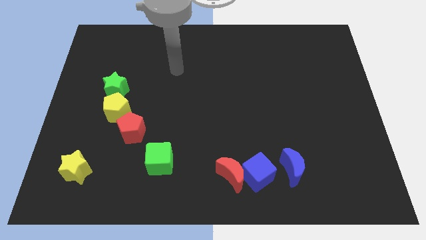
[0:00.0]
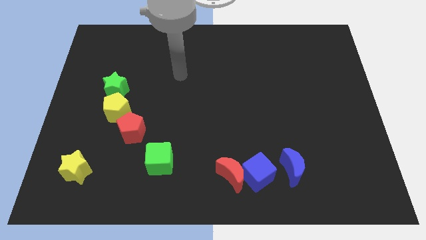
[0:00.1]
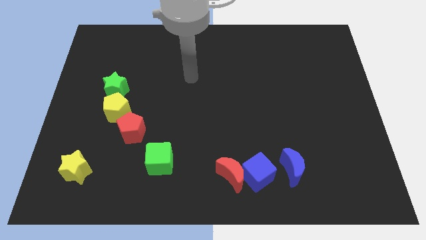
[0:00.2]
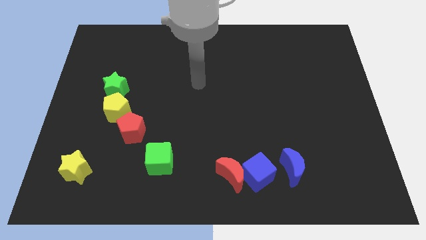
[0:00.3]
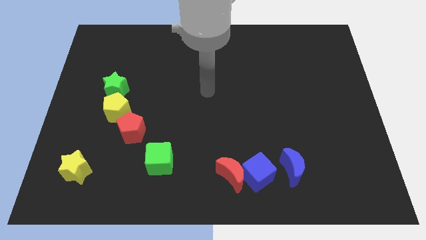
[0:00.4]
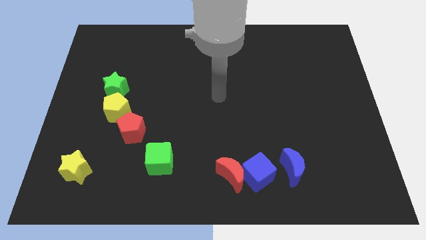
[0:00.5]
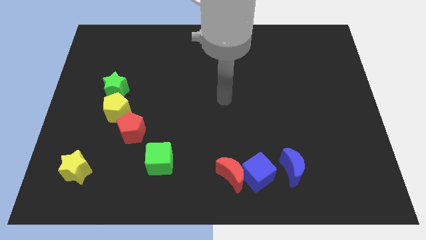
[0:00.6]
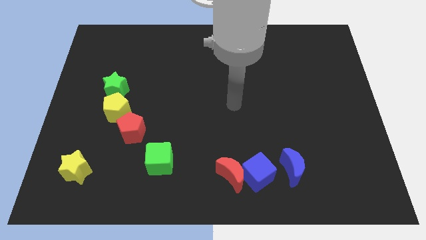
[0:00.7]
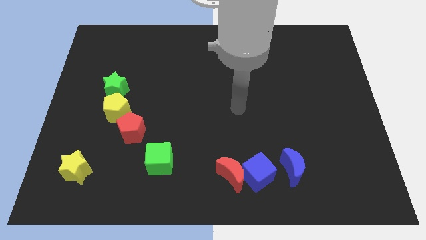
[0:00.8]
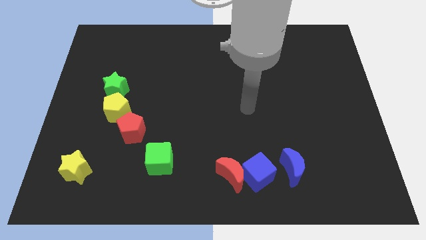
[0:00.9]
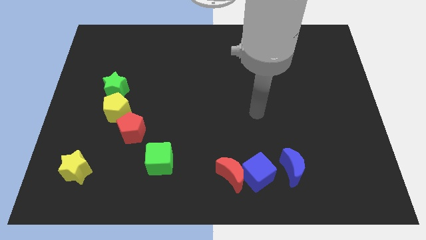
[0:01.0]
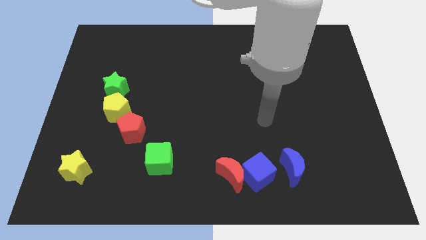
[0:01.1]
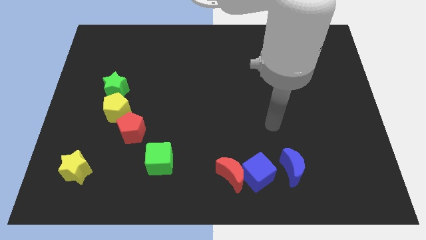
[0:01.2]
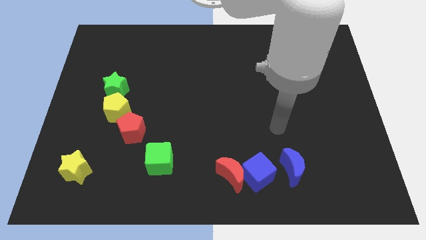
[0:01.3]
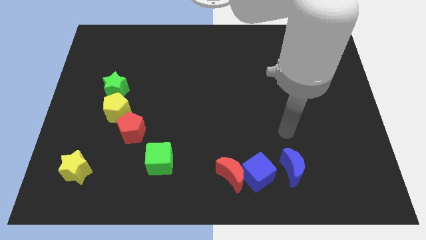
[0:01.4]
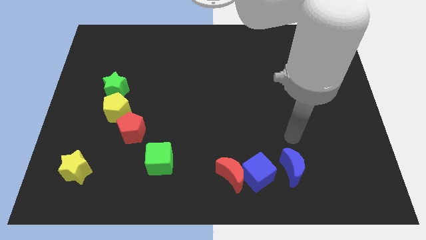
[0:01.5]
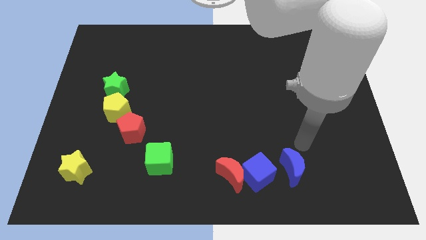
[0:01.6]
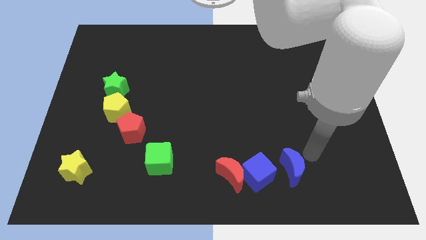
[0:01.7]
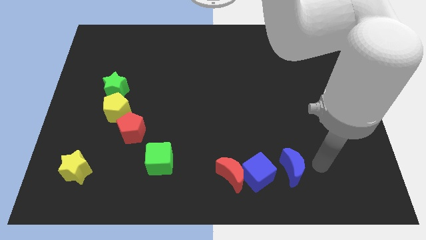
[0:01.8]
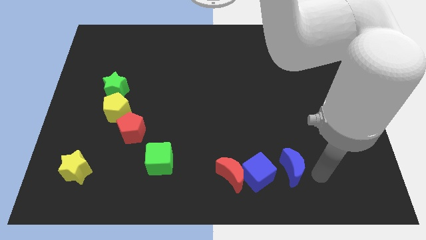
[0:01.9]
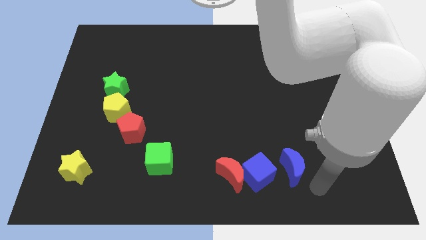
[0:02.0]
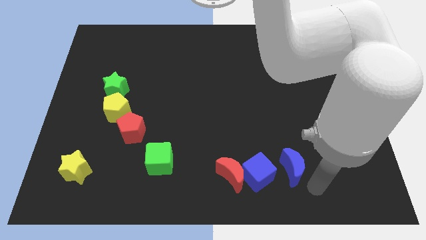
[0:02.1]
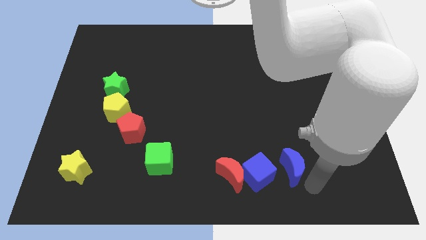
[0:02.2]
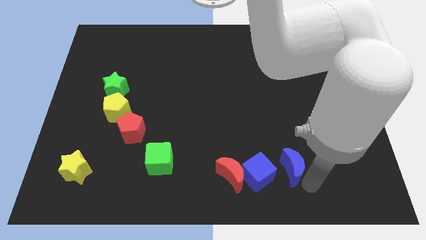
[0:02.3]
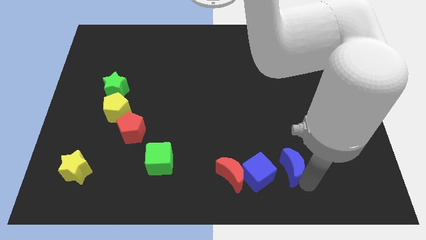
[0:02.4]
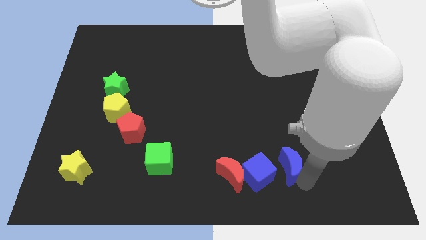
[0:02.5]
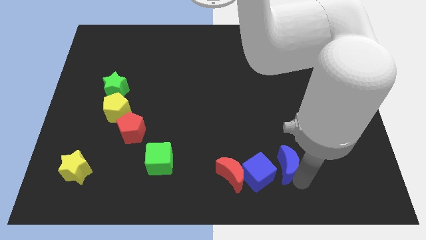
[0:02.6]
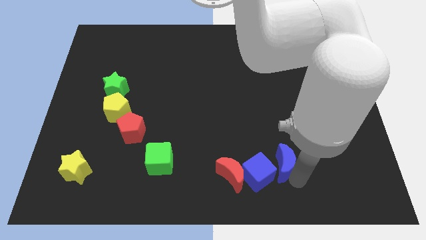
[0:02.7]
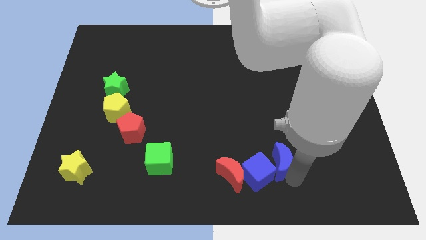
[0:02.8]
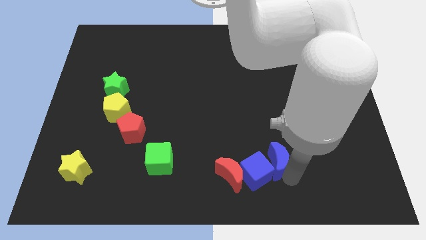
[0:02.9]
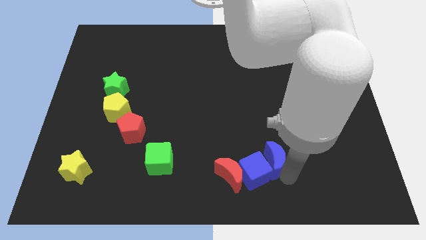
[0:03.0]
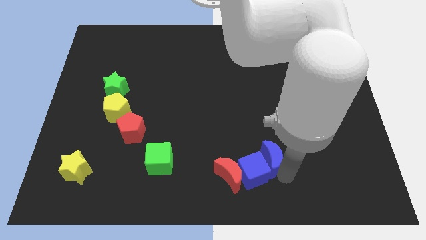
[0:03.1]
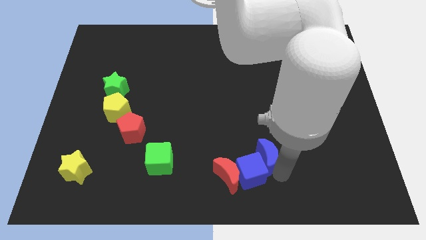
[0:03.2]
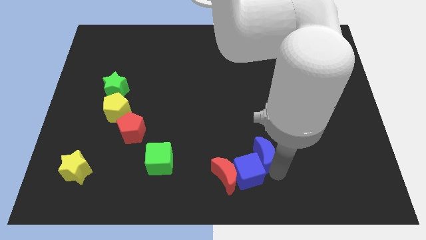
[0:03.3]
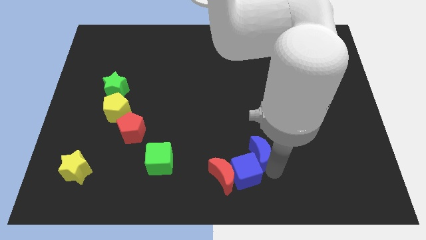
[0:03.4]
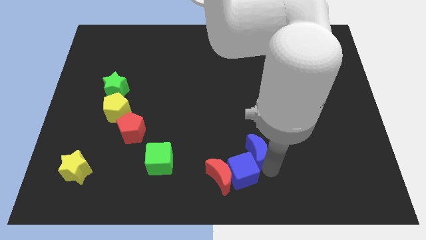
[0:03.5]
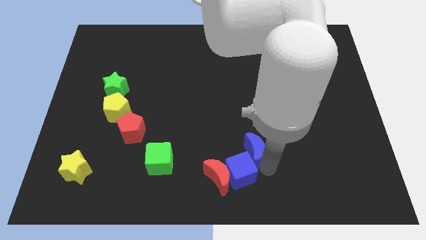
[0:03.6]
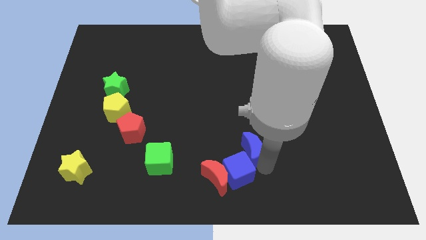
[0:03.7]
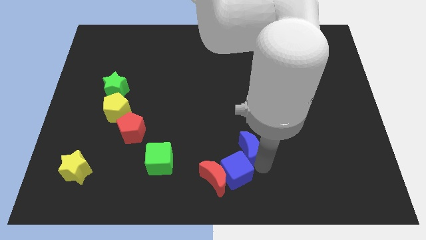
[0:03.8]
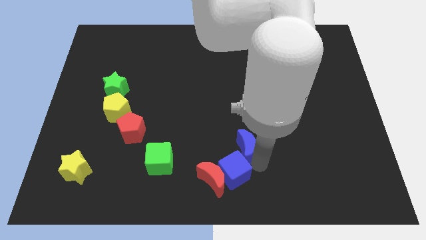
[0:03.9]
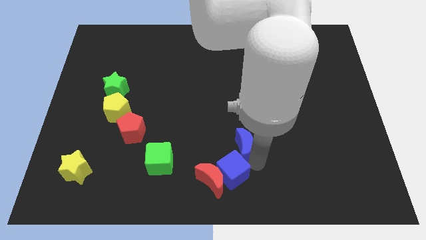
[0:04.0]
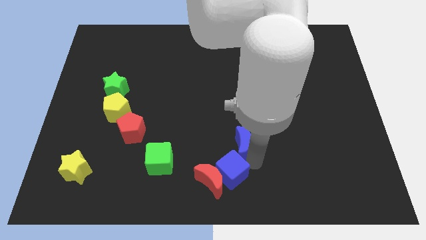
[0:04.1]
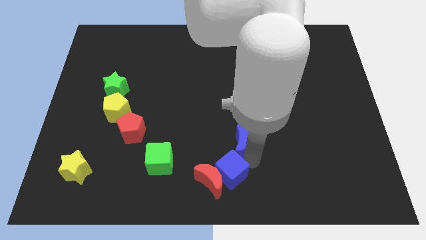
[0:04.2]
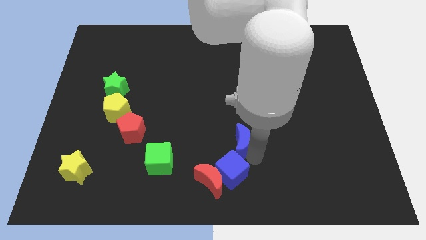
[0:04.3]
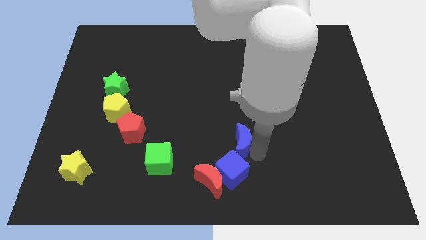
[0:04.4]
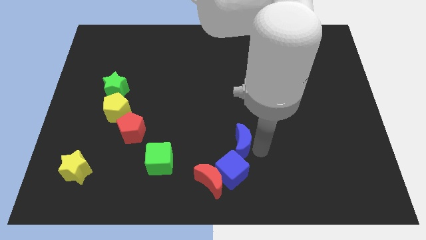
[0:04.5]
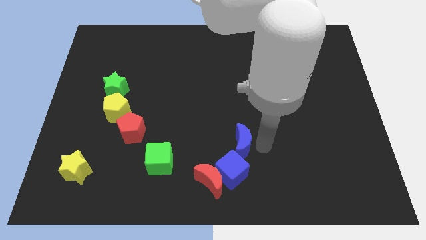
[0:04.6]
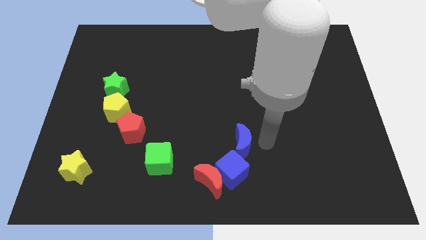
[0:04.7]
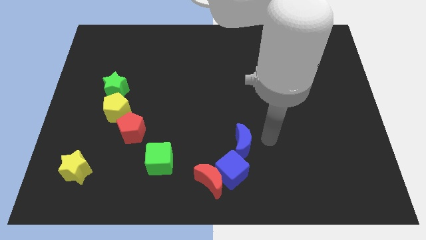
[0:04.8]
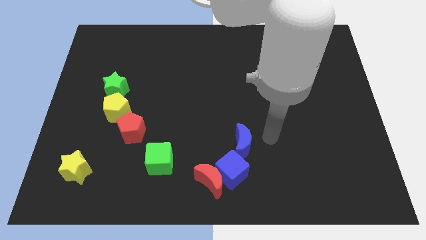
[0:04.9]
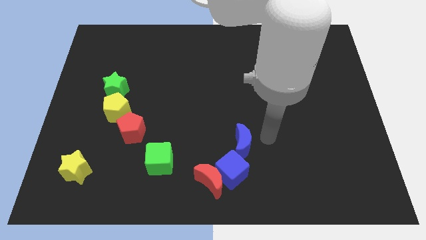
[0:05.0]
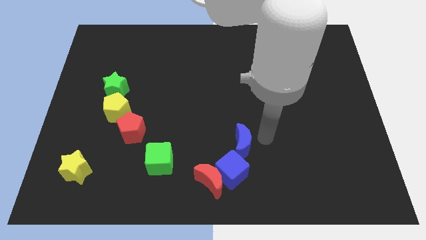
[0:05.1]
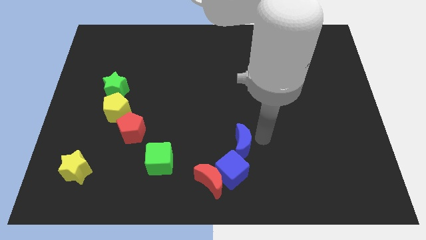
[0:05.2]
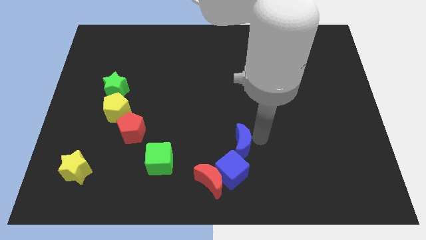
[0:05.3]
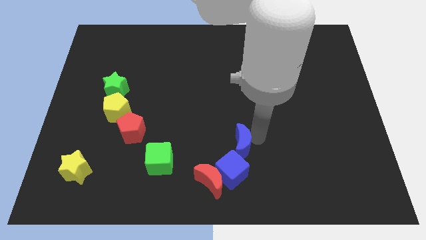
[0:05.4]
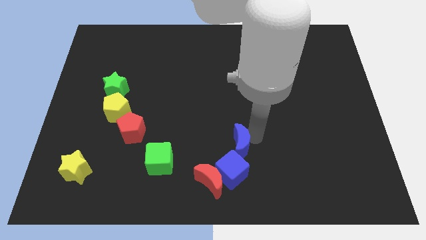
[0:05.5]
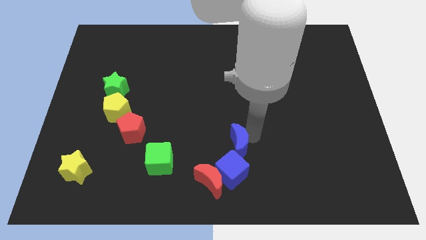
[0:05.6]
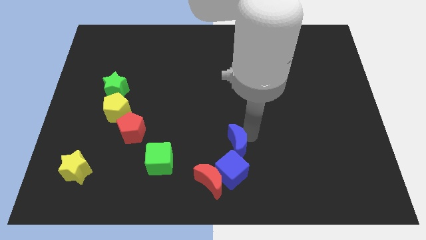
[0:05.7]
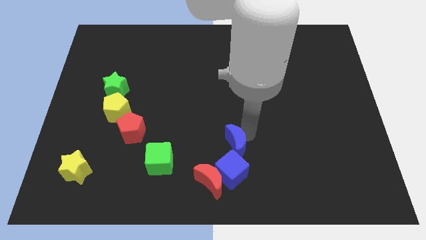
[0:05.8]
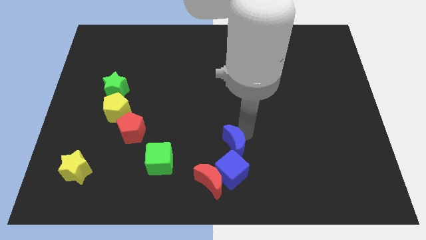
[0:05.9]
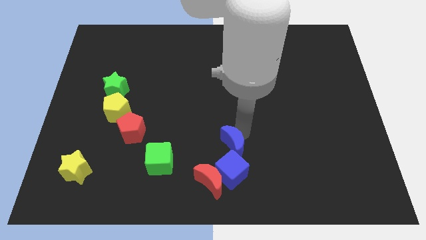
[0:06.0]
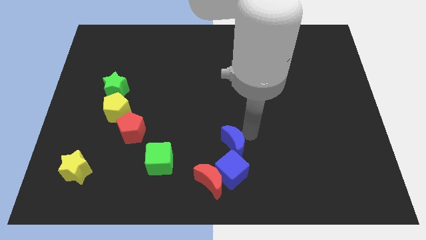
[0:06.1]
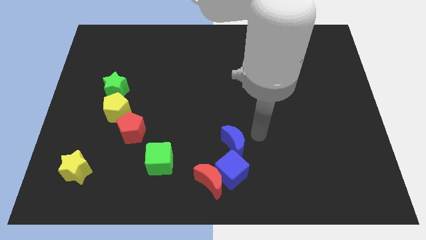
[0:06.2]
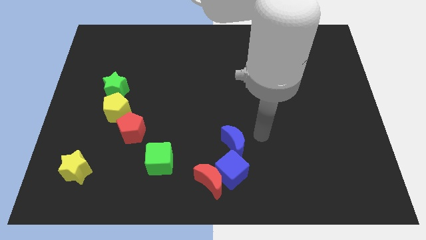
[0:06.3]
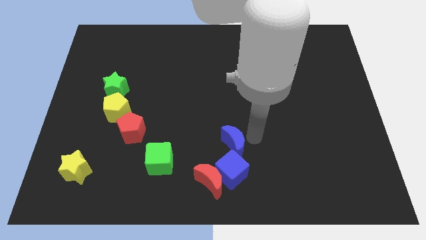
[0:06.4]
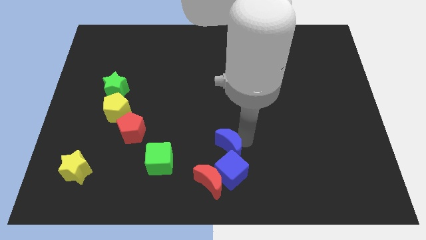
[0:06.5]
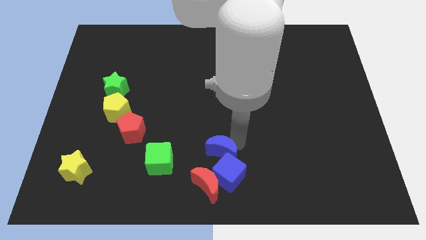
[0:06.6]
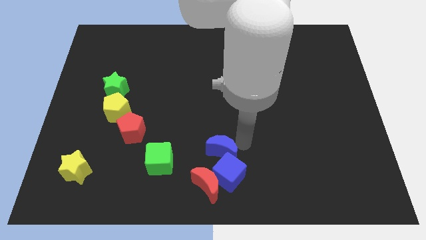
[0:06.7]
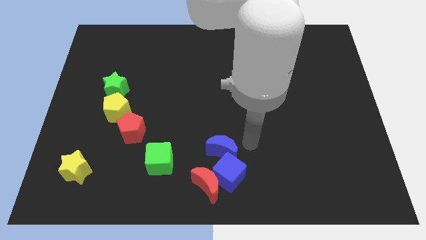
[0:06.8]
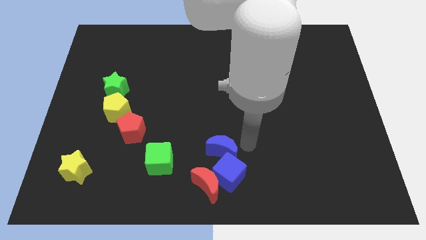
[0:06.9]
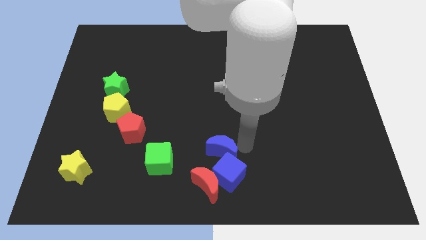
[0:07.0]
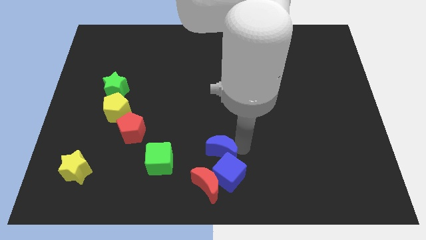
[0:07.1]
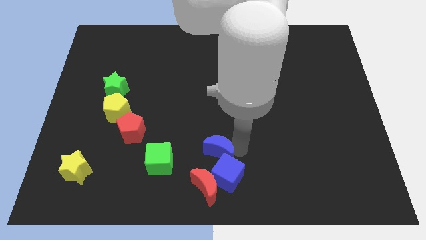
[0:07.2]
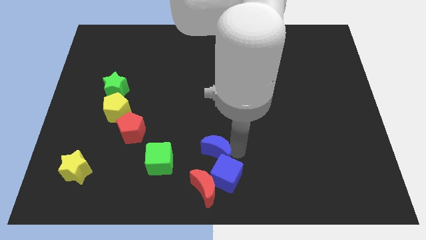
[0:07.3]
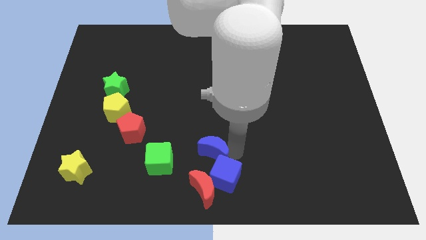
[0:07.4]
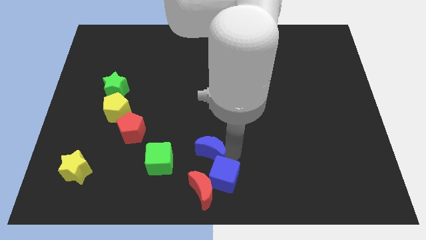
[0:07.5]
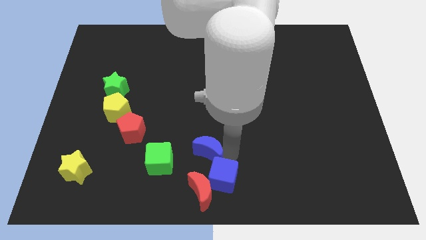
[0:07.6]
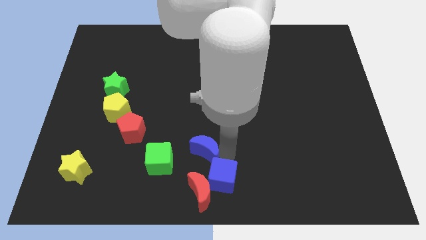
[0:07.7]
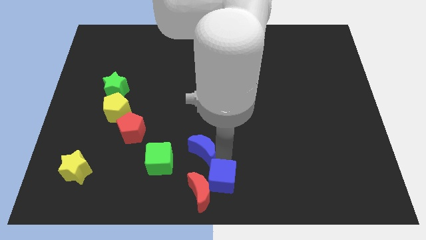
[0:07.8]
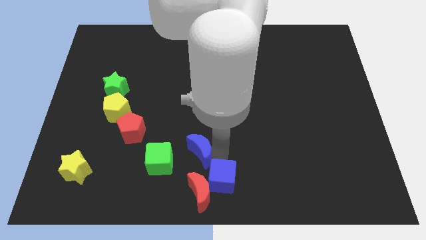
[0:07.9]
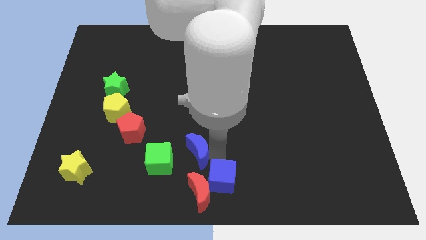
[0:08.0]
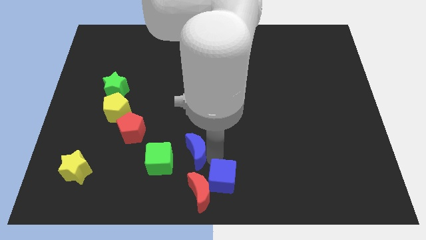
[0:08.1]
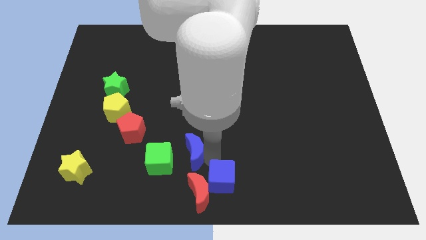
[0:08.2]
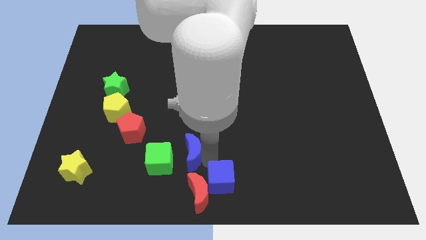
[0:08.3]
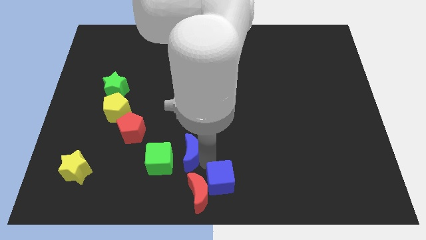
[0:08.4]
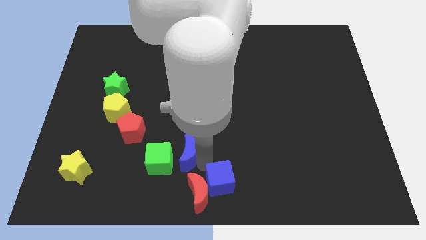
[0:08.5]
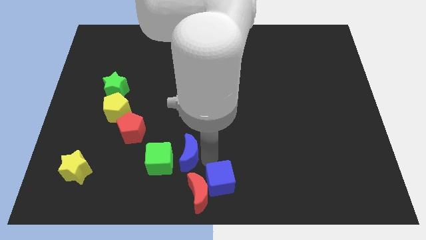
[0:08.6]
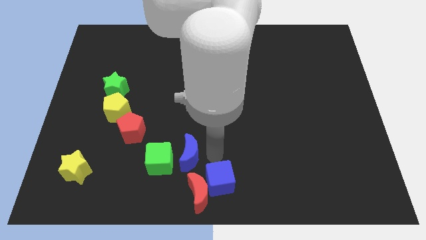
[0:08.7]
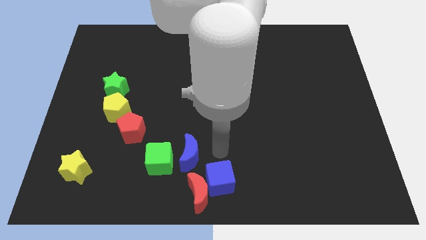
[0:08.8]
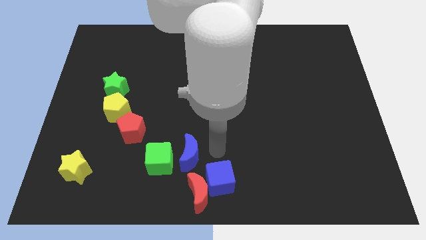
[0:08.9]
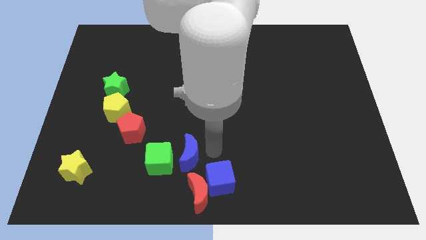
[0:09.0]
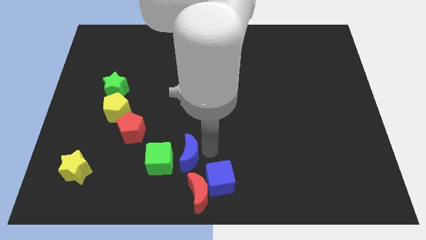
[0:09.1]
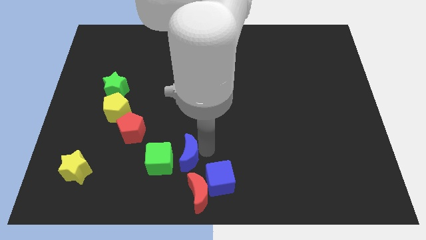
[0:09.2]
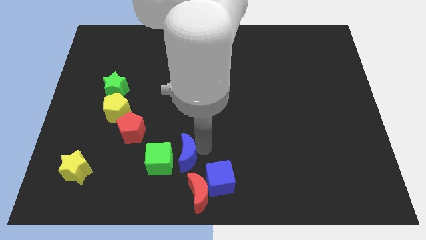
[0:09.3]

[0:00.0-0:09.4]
put the blue moon next to the green cube
